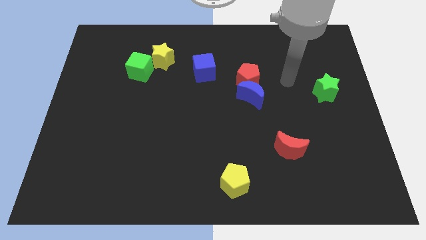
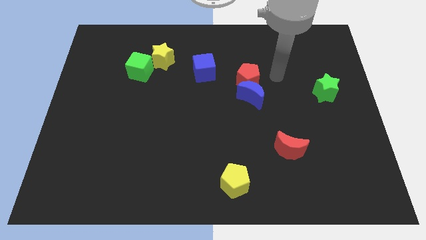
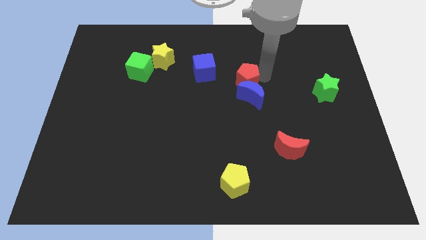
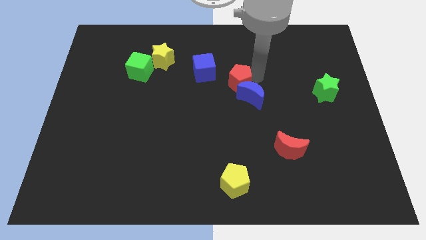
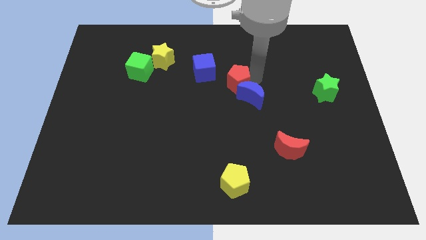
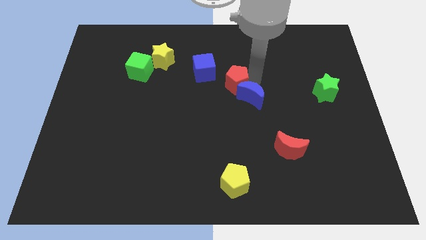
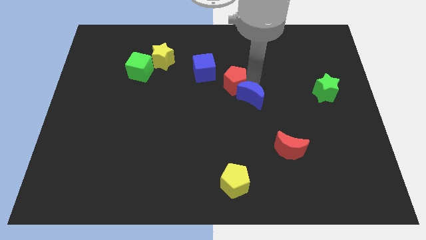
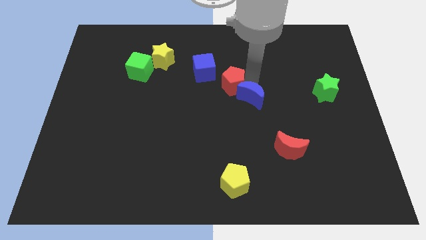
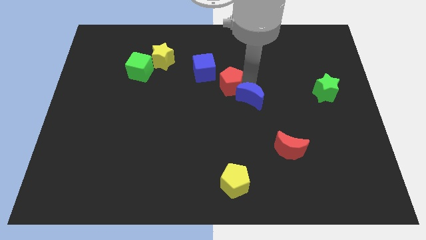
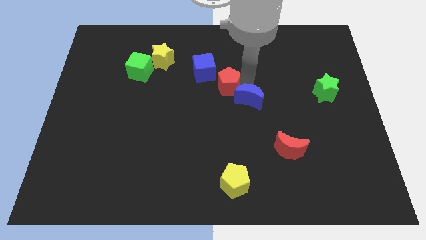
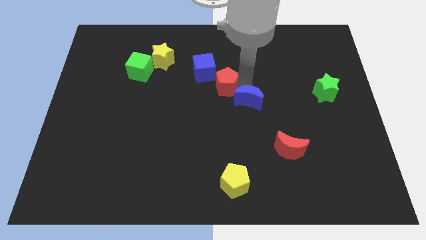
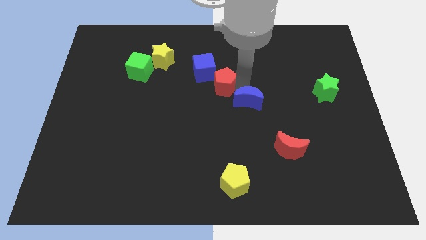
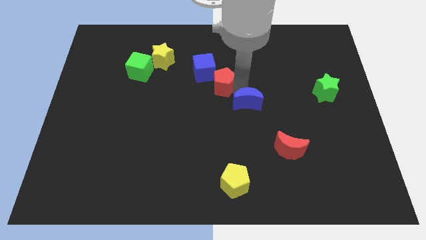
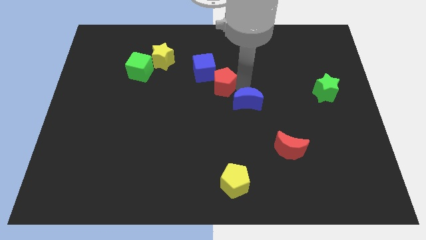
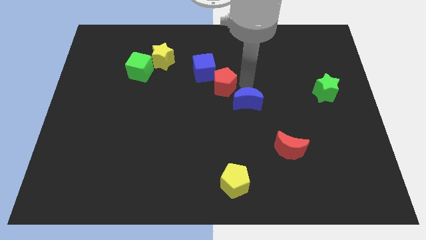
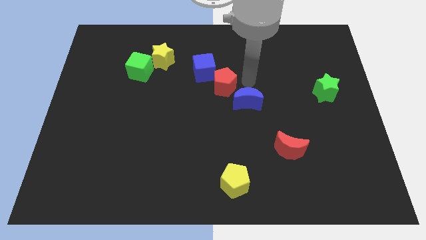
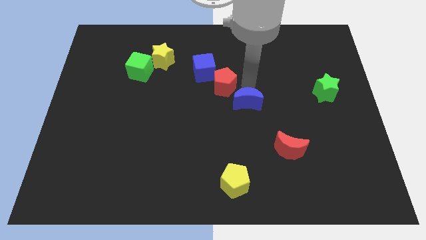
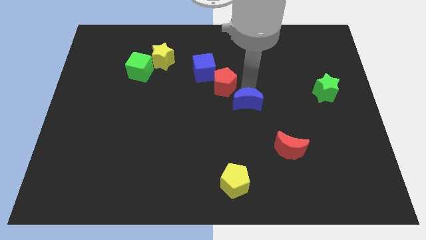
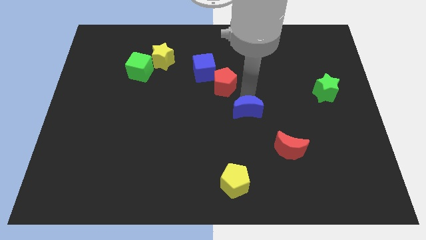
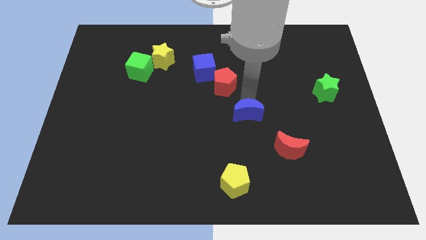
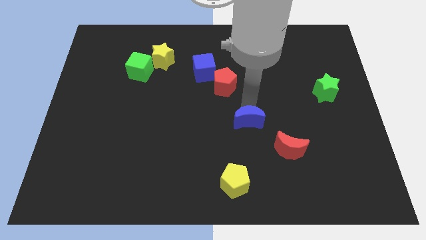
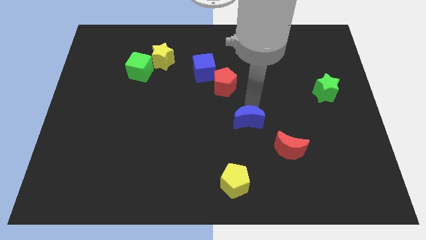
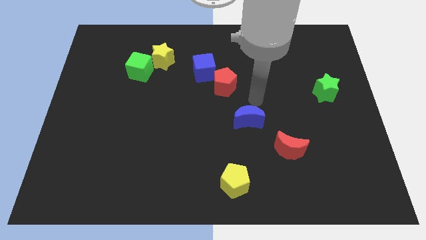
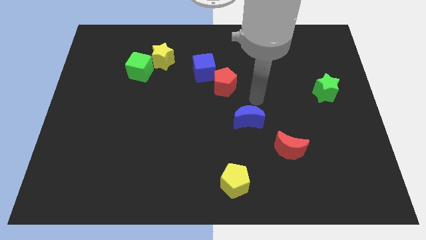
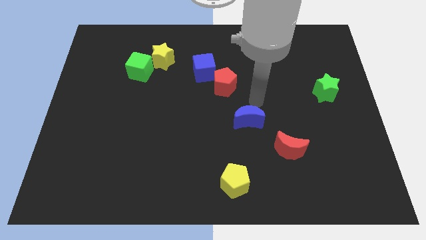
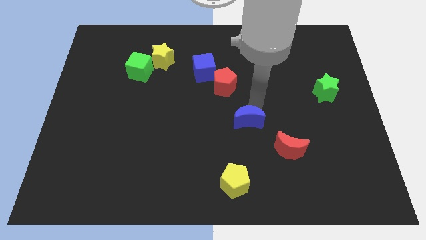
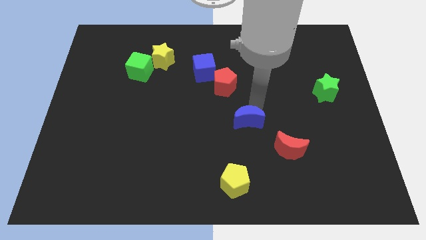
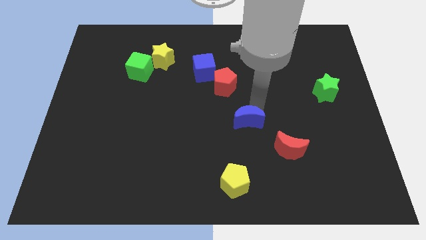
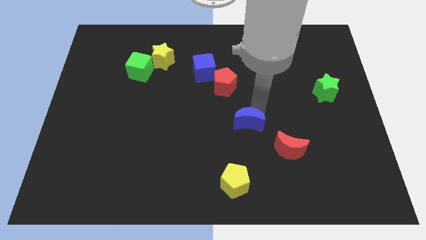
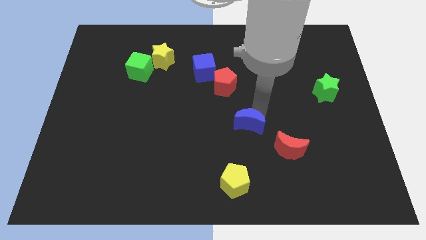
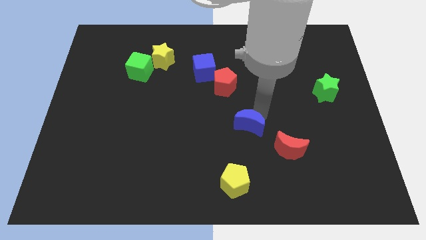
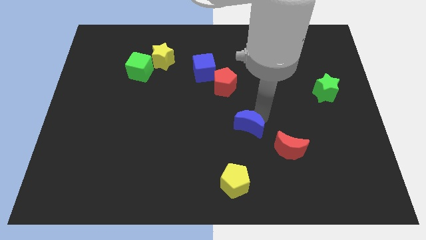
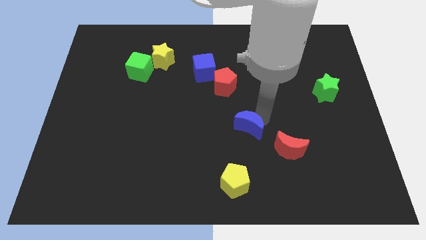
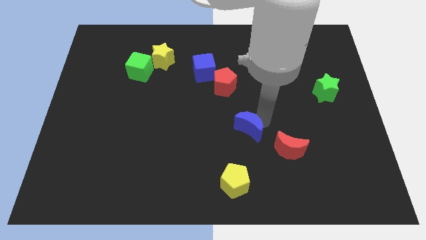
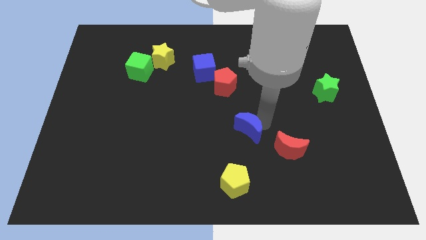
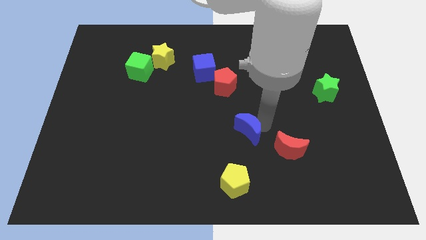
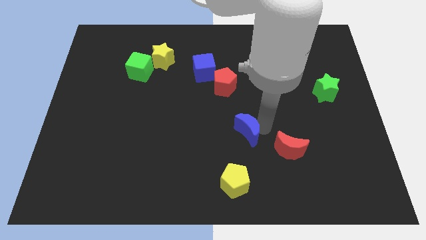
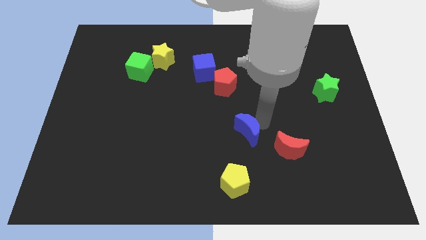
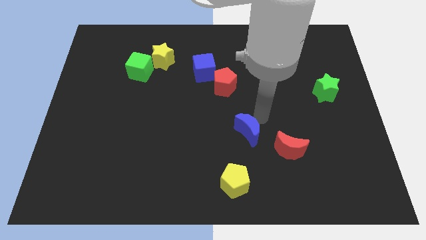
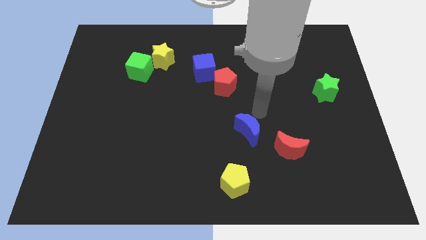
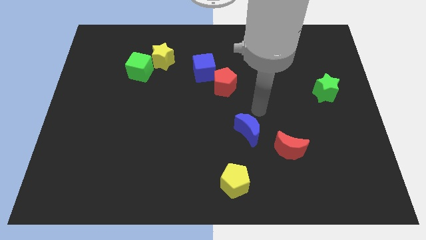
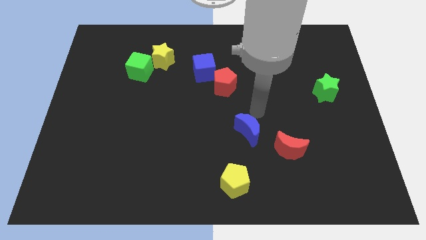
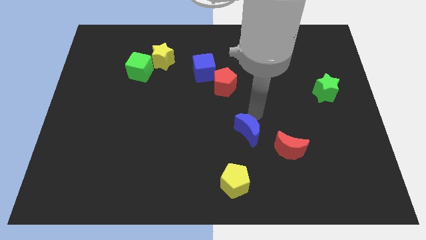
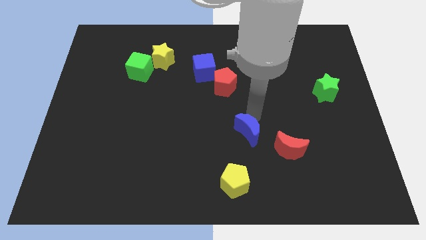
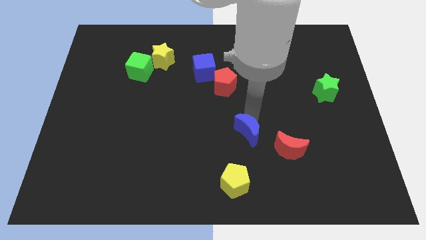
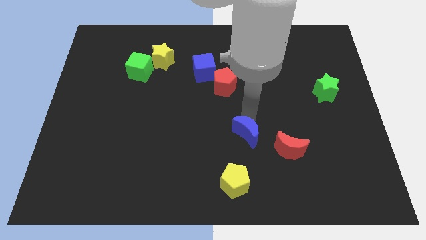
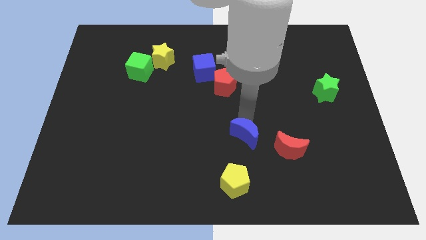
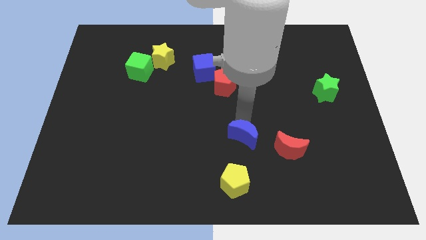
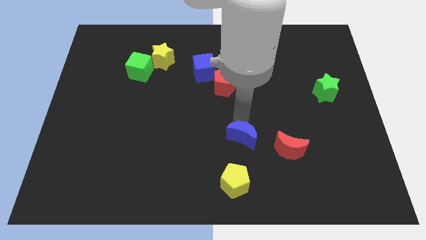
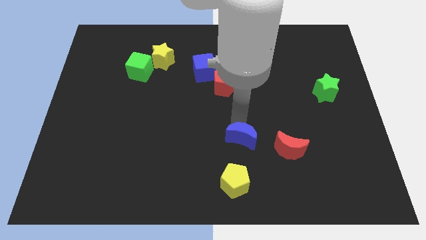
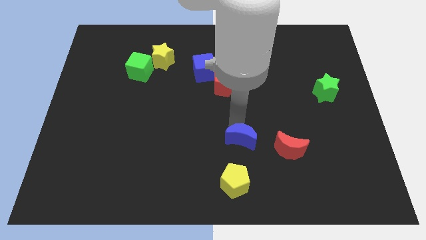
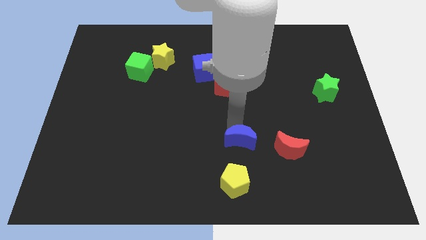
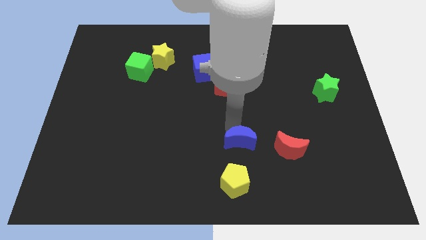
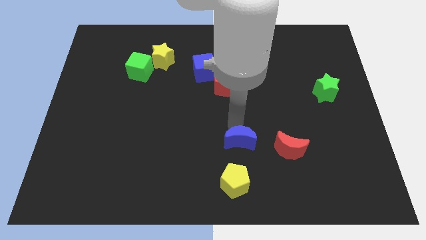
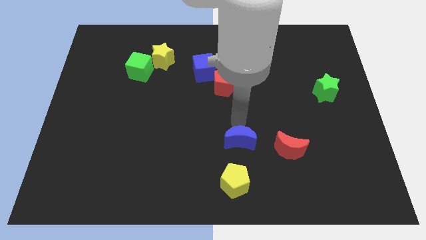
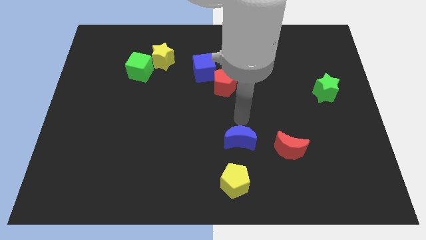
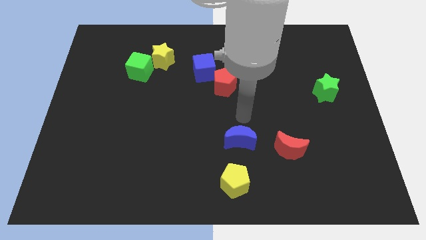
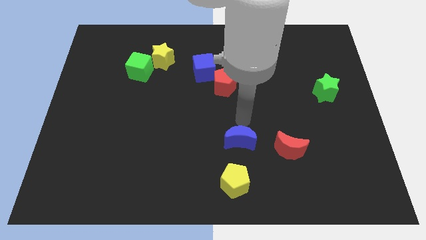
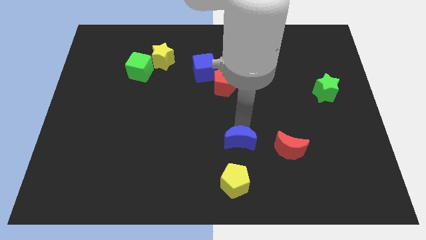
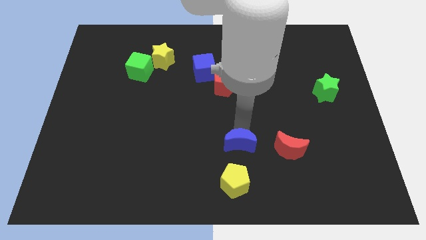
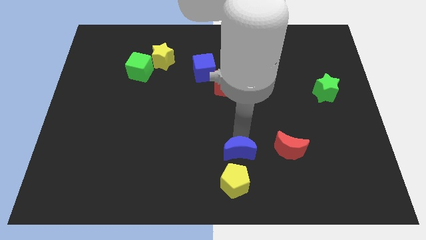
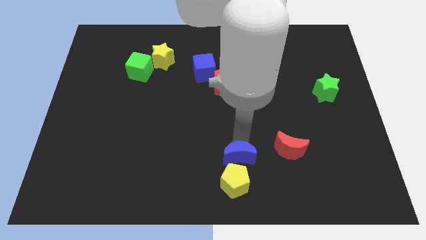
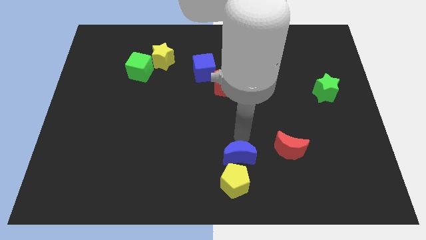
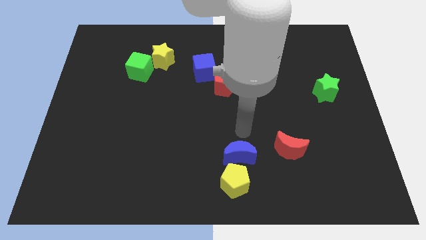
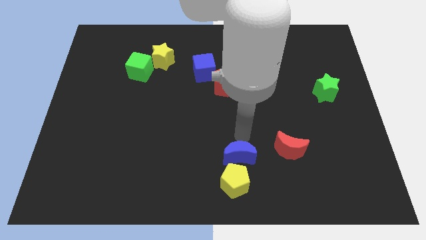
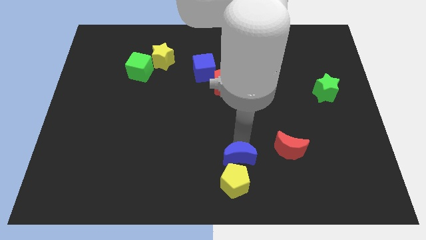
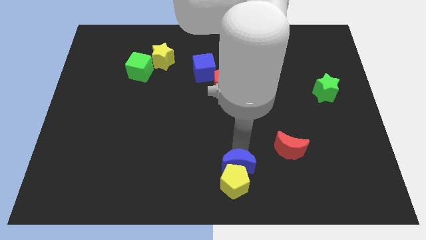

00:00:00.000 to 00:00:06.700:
put the blue moon close to the yellow pentagon
